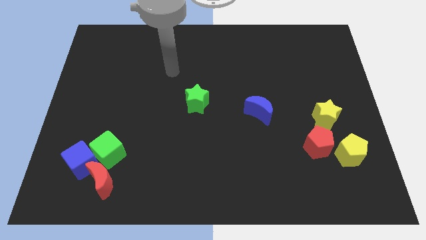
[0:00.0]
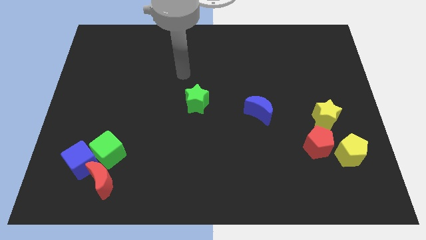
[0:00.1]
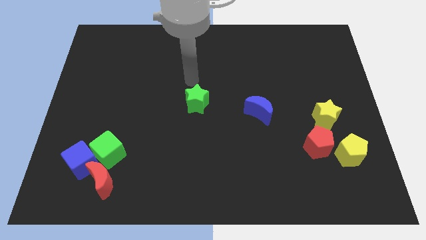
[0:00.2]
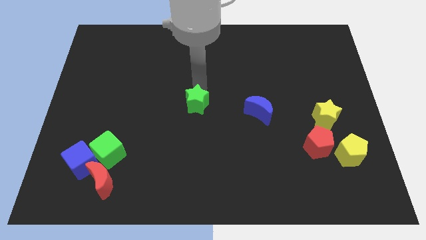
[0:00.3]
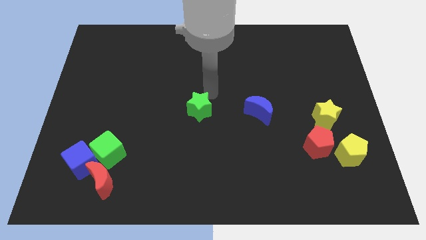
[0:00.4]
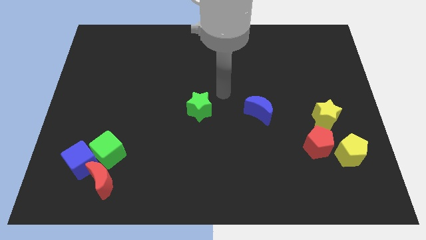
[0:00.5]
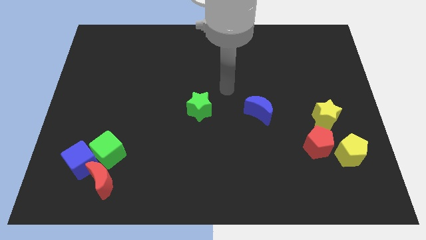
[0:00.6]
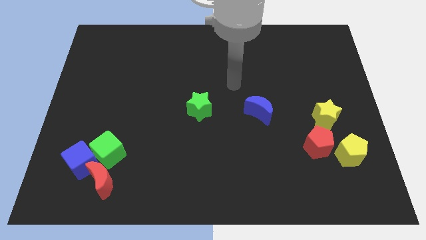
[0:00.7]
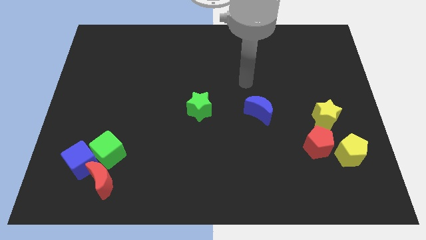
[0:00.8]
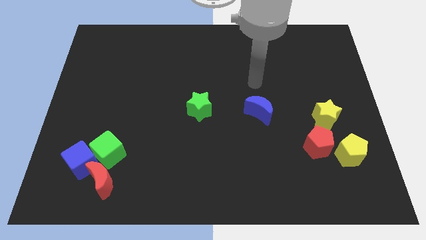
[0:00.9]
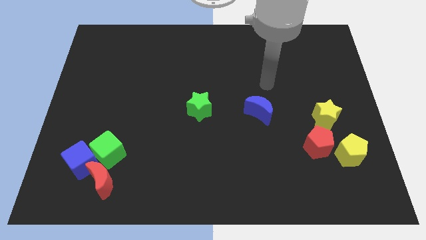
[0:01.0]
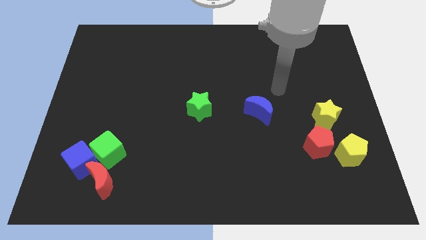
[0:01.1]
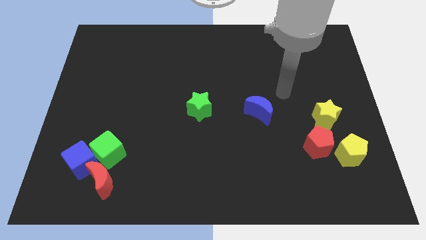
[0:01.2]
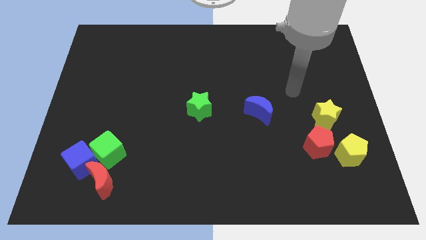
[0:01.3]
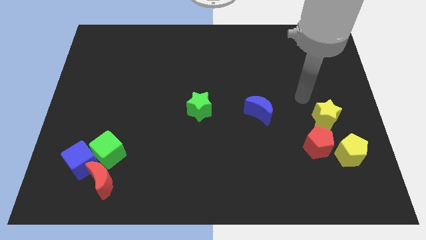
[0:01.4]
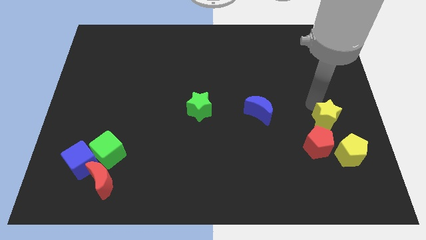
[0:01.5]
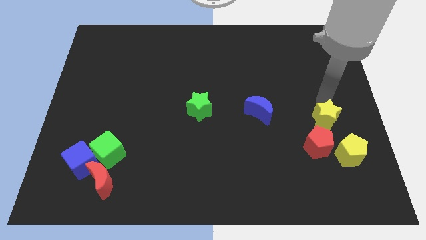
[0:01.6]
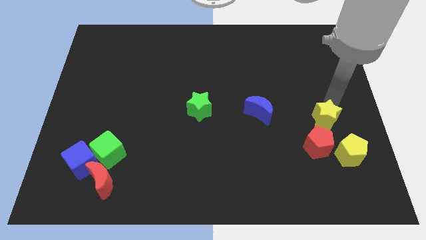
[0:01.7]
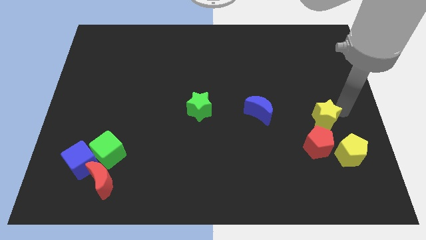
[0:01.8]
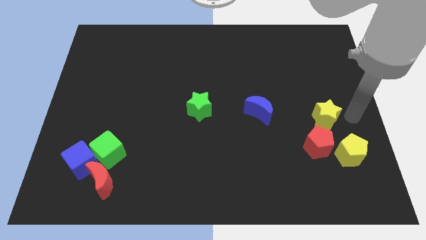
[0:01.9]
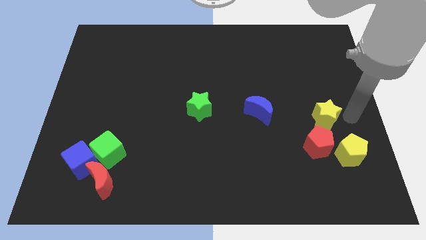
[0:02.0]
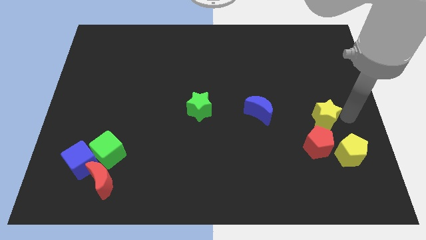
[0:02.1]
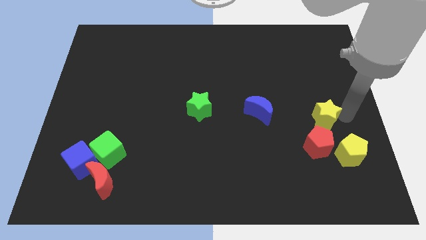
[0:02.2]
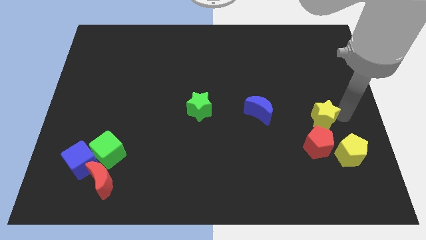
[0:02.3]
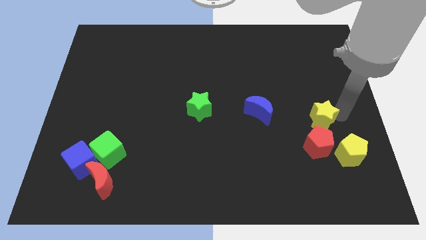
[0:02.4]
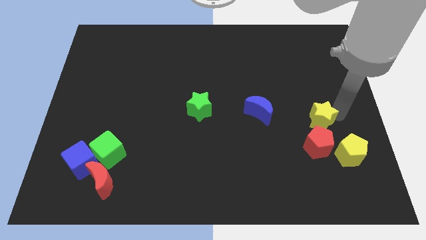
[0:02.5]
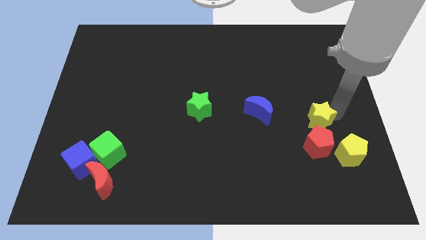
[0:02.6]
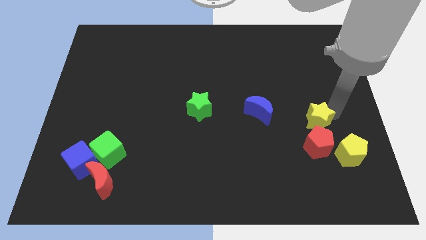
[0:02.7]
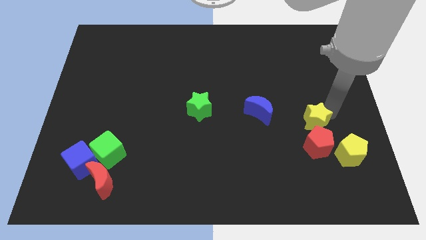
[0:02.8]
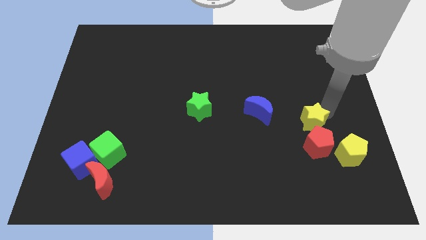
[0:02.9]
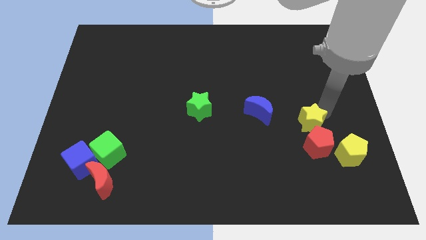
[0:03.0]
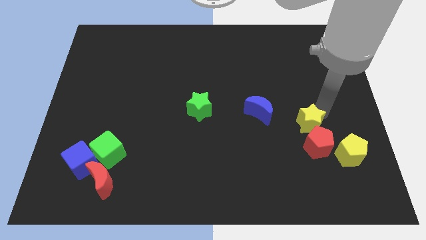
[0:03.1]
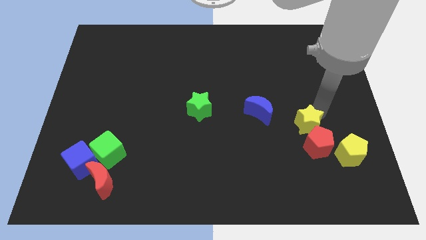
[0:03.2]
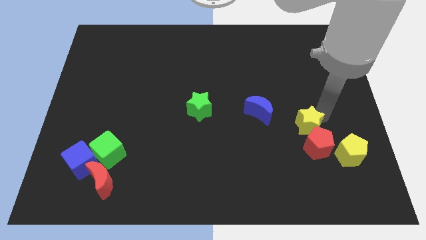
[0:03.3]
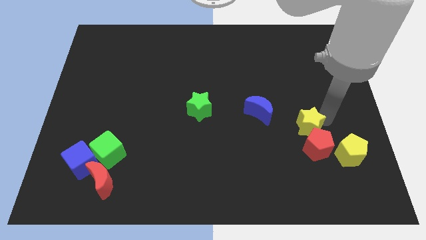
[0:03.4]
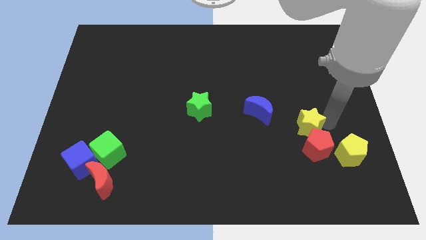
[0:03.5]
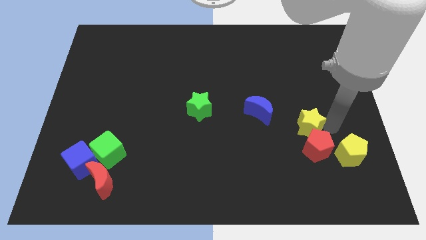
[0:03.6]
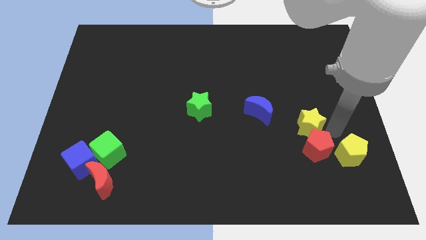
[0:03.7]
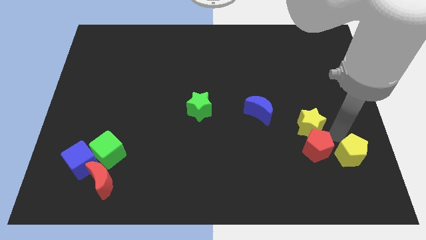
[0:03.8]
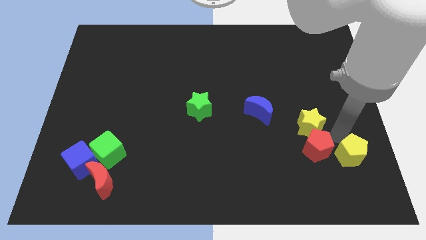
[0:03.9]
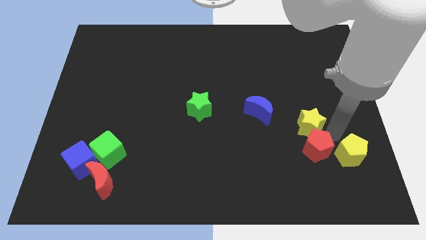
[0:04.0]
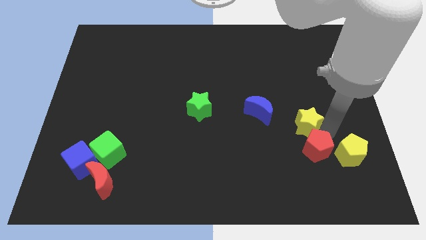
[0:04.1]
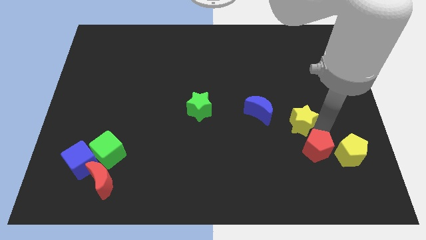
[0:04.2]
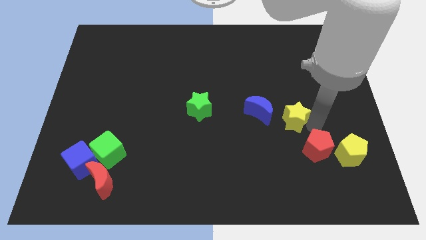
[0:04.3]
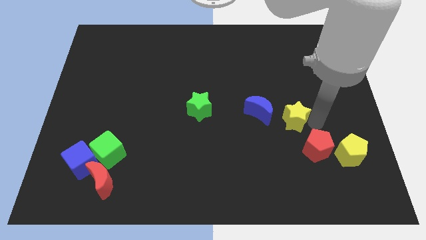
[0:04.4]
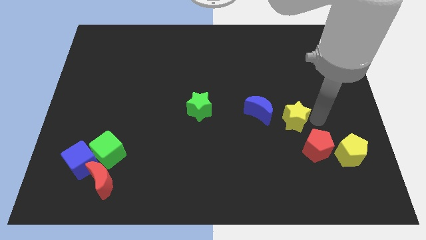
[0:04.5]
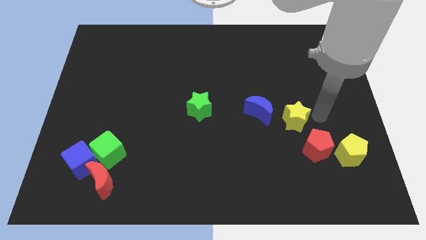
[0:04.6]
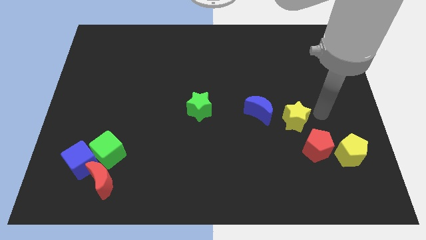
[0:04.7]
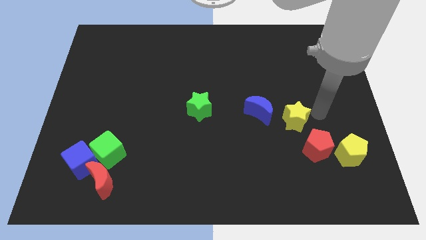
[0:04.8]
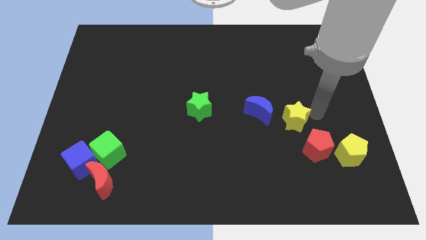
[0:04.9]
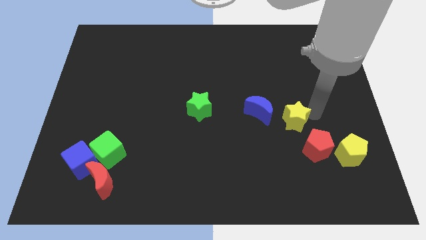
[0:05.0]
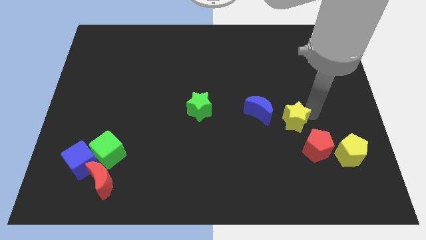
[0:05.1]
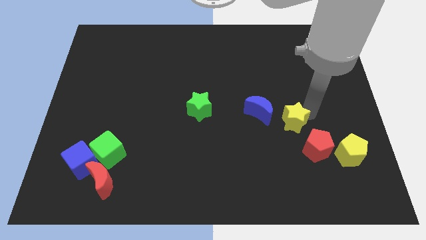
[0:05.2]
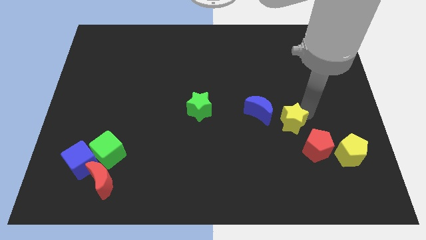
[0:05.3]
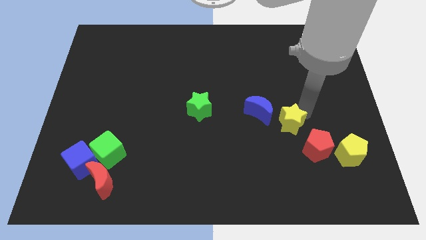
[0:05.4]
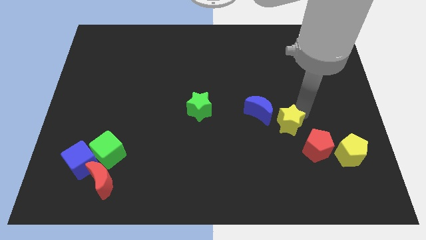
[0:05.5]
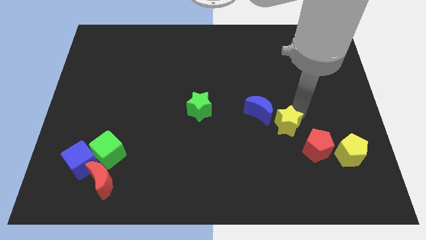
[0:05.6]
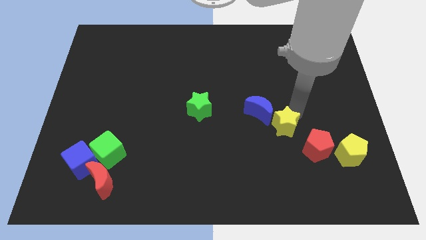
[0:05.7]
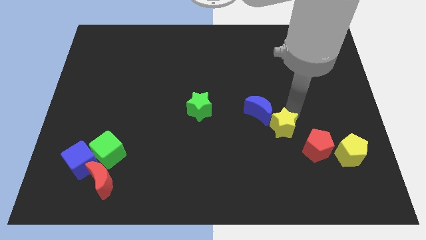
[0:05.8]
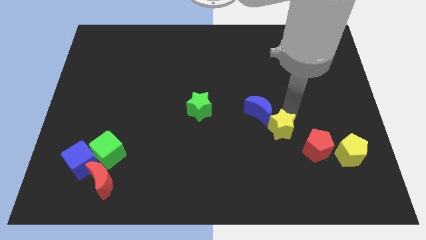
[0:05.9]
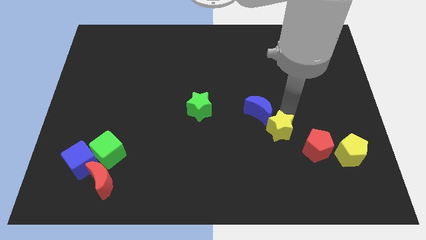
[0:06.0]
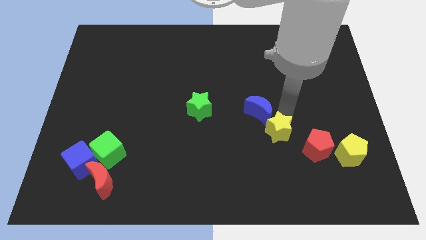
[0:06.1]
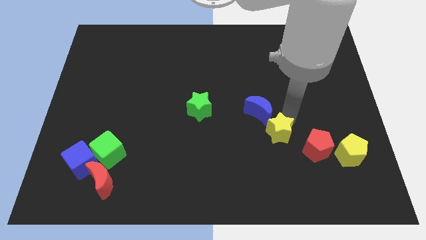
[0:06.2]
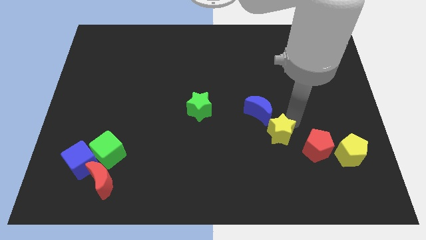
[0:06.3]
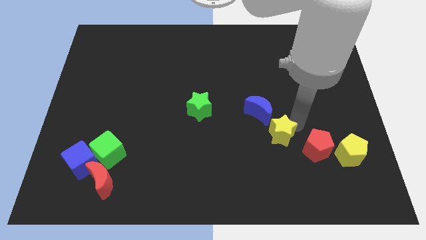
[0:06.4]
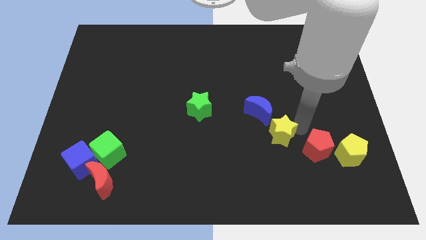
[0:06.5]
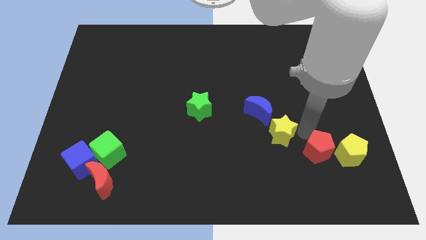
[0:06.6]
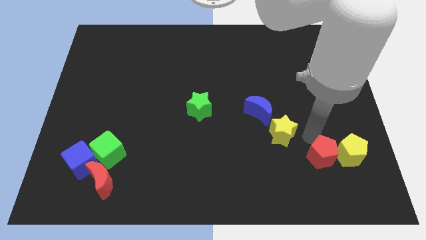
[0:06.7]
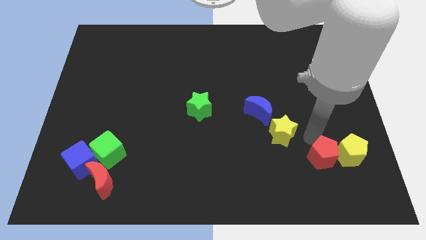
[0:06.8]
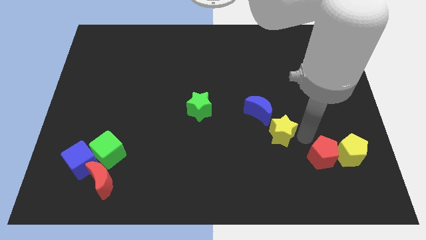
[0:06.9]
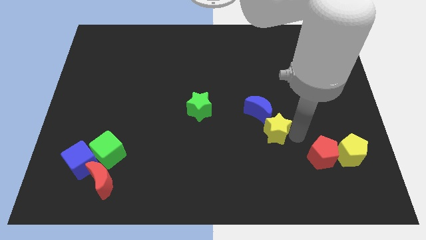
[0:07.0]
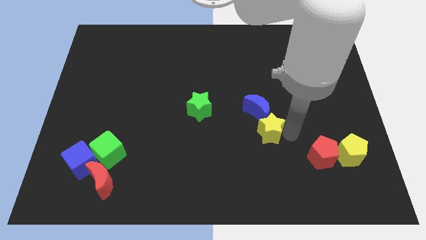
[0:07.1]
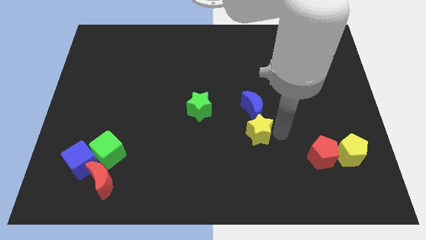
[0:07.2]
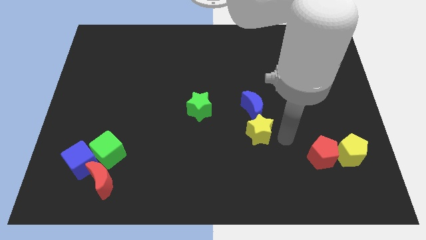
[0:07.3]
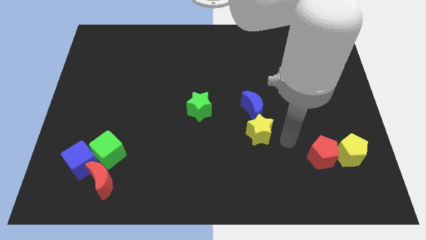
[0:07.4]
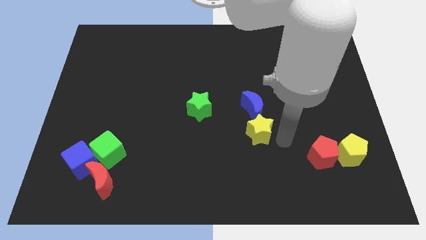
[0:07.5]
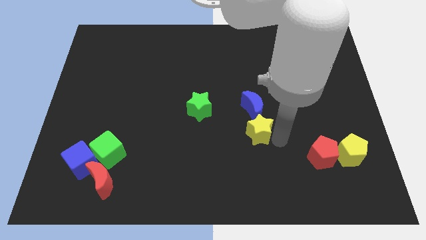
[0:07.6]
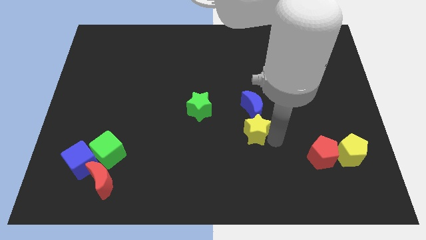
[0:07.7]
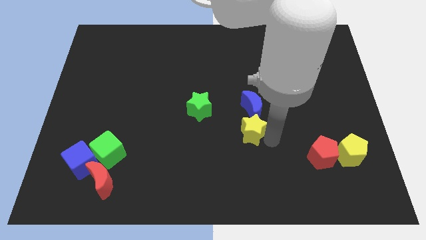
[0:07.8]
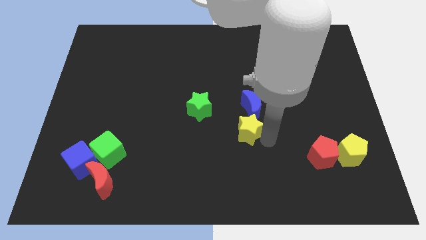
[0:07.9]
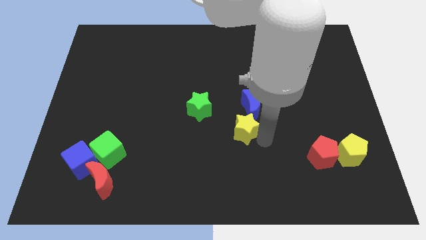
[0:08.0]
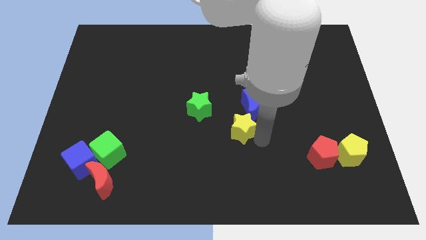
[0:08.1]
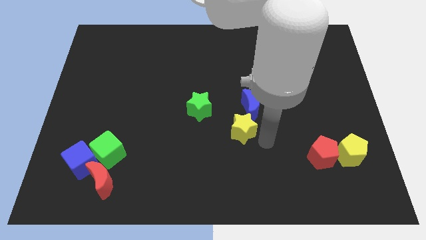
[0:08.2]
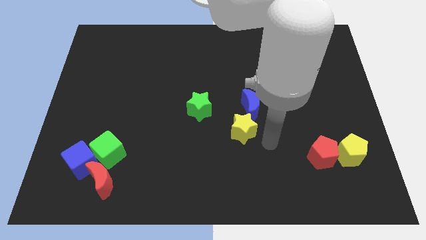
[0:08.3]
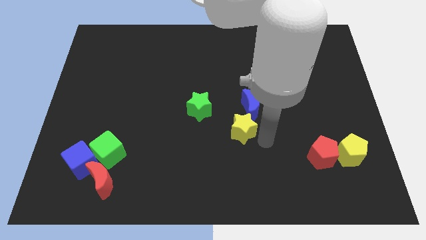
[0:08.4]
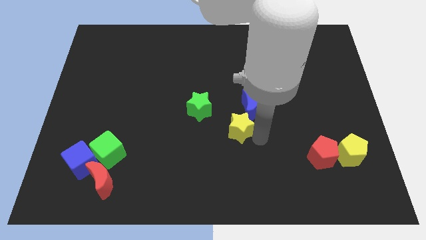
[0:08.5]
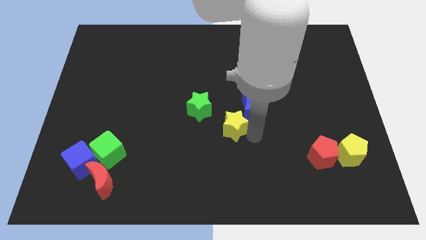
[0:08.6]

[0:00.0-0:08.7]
move the yellow star left
